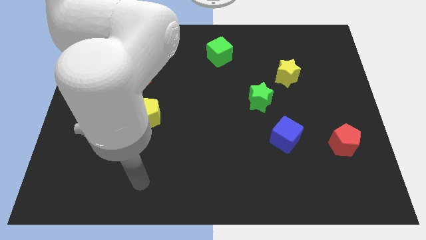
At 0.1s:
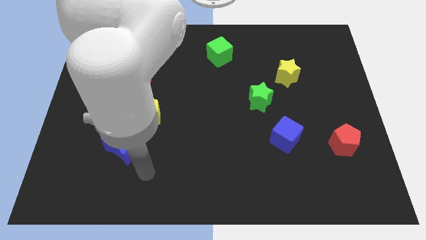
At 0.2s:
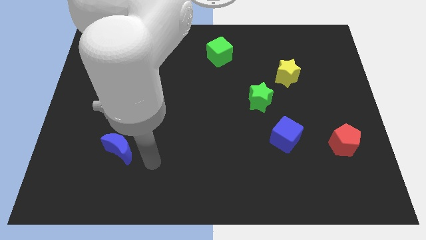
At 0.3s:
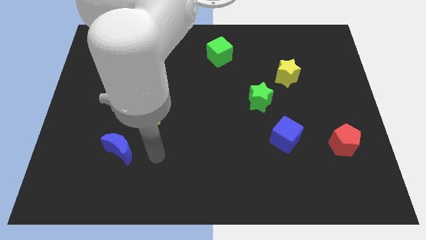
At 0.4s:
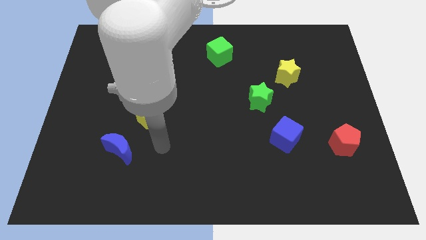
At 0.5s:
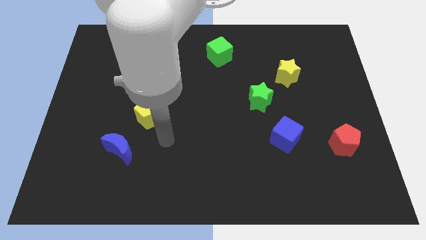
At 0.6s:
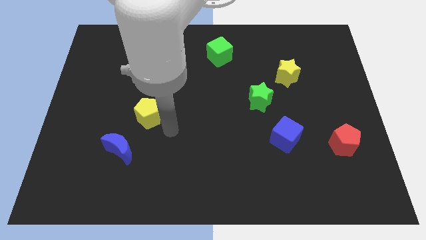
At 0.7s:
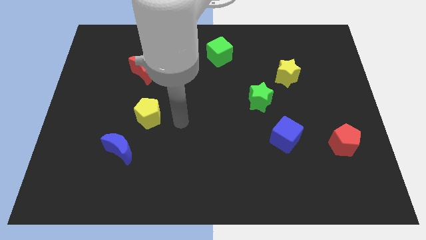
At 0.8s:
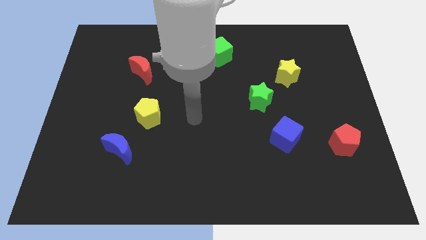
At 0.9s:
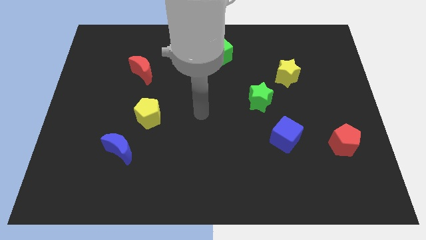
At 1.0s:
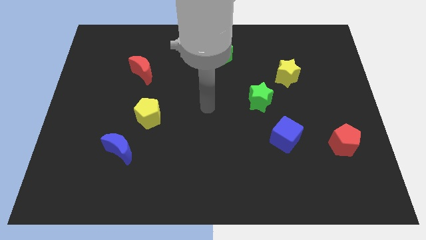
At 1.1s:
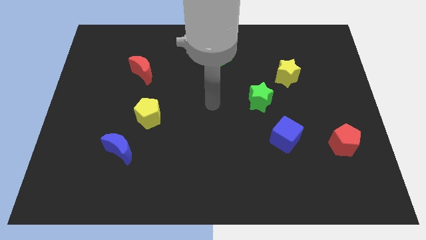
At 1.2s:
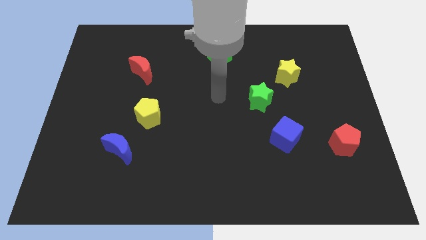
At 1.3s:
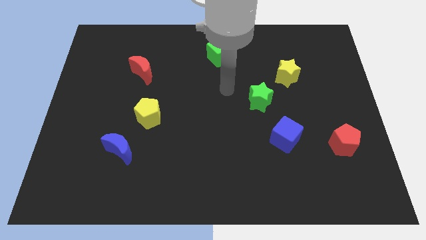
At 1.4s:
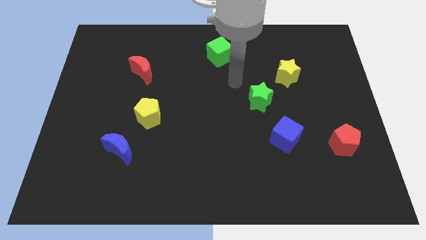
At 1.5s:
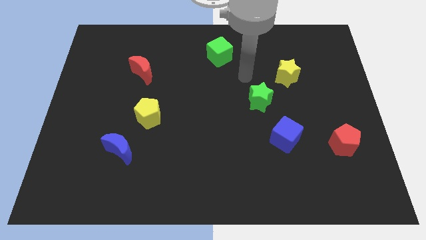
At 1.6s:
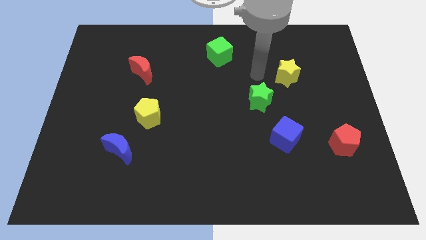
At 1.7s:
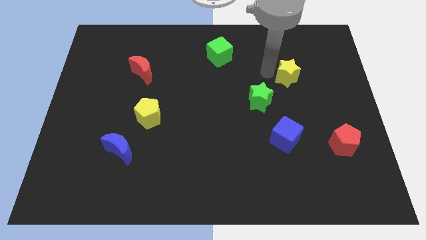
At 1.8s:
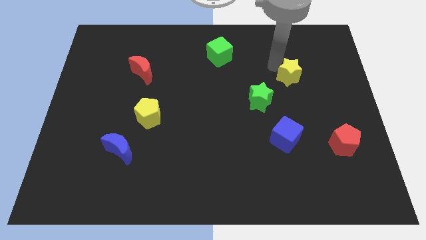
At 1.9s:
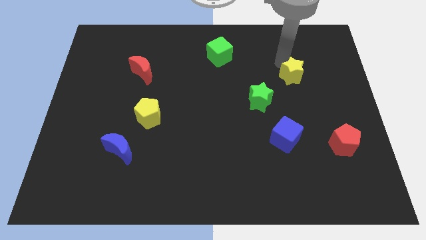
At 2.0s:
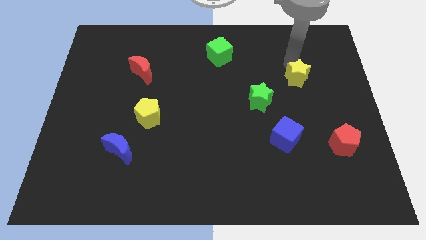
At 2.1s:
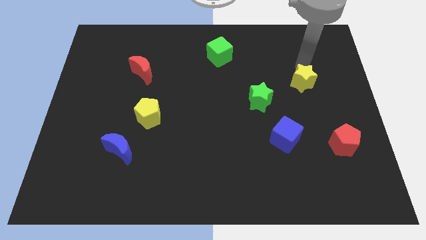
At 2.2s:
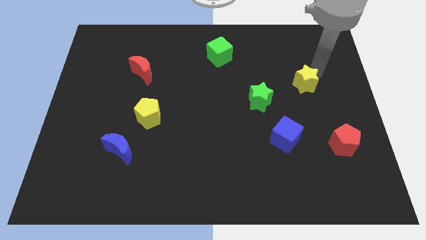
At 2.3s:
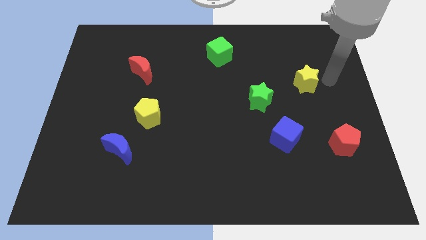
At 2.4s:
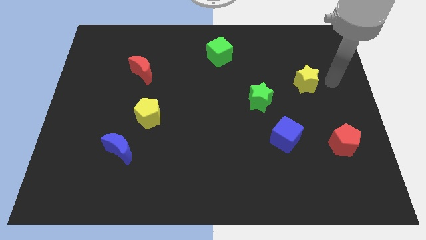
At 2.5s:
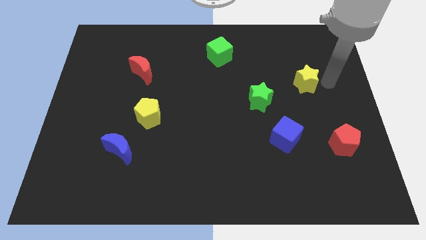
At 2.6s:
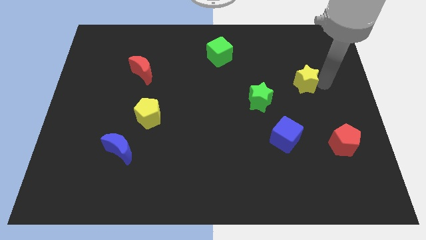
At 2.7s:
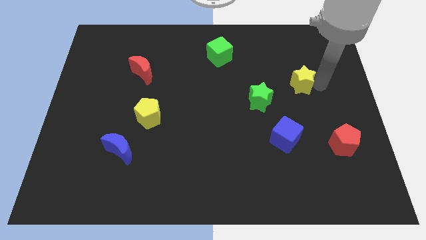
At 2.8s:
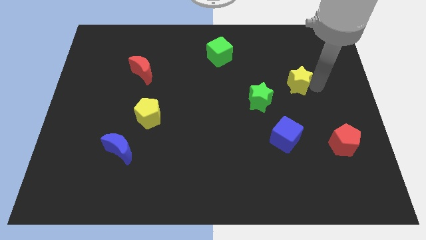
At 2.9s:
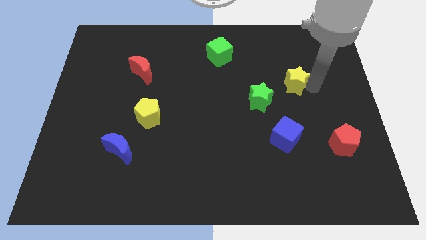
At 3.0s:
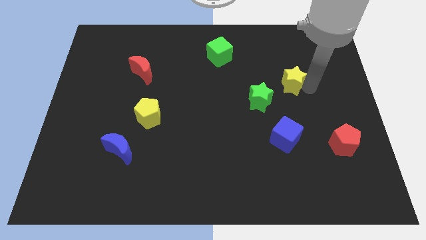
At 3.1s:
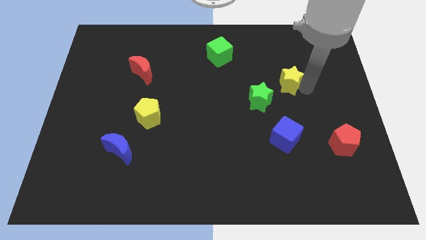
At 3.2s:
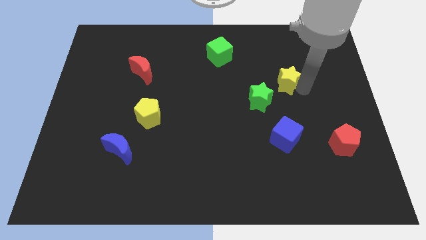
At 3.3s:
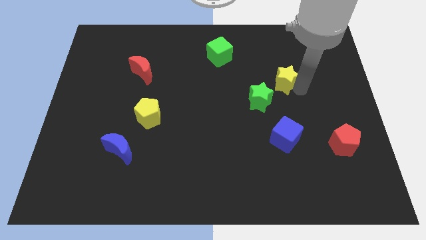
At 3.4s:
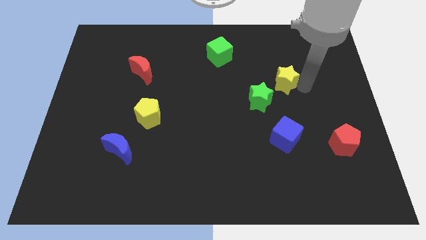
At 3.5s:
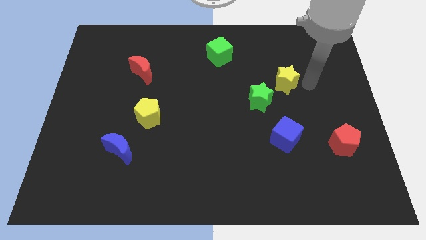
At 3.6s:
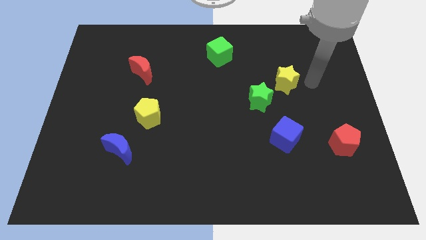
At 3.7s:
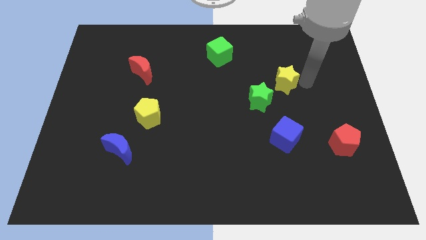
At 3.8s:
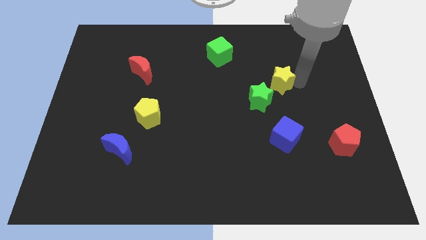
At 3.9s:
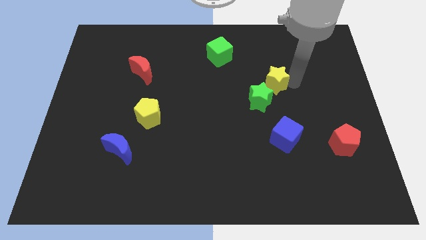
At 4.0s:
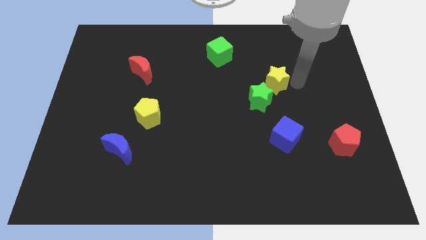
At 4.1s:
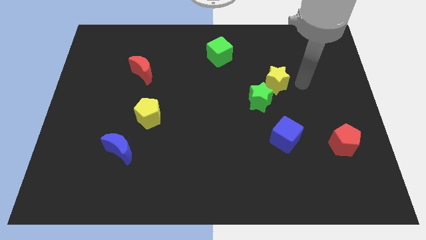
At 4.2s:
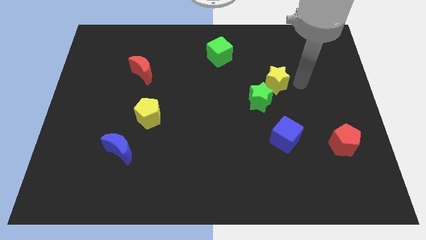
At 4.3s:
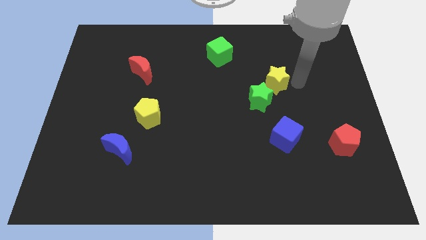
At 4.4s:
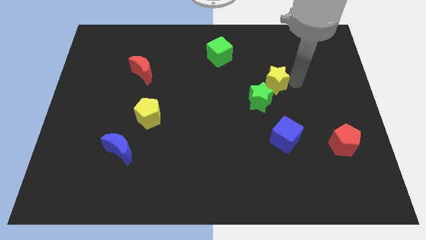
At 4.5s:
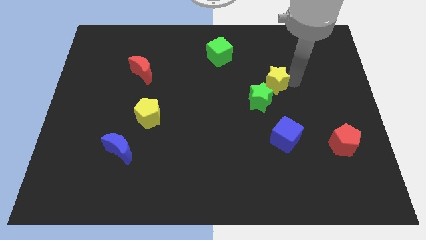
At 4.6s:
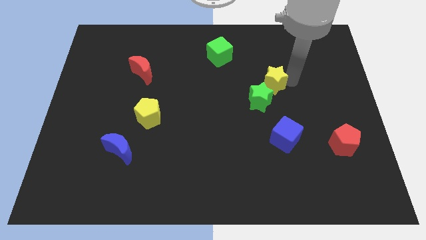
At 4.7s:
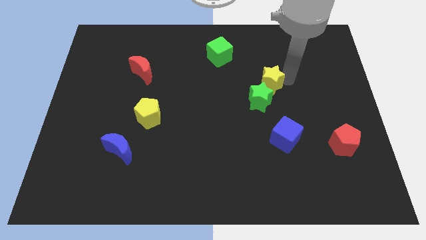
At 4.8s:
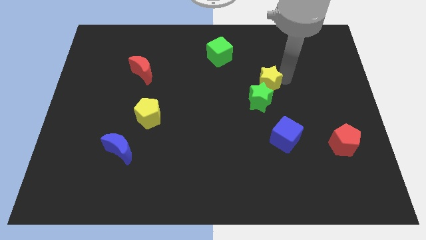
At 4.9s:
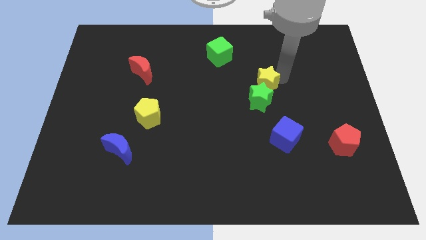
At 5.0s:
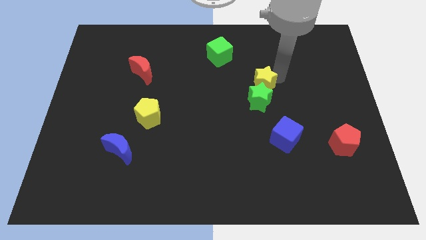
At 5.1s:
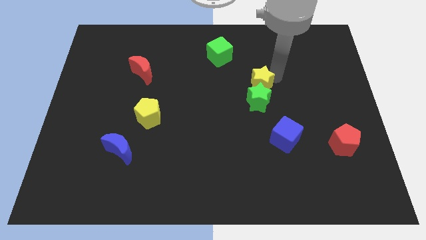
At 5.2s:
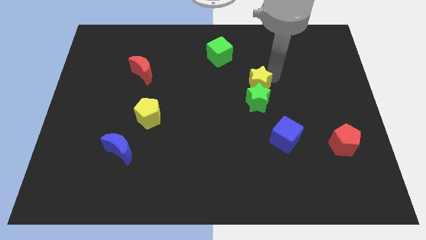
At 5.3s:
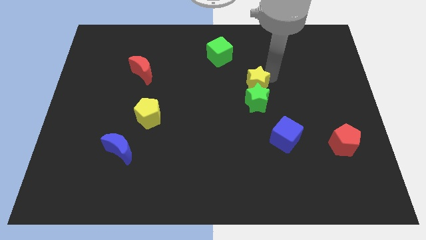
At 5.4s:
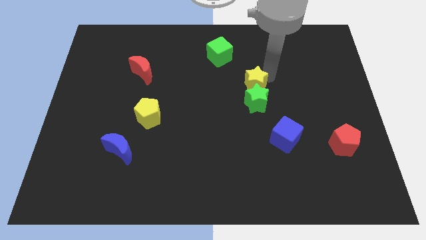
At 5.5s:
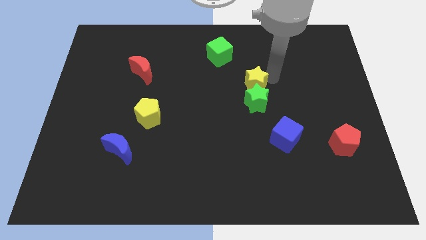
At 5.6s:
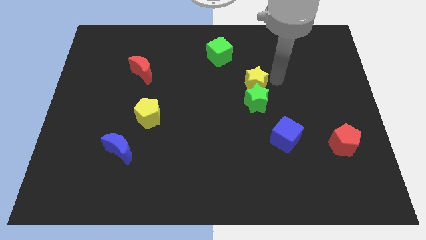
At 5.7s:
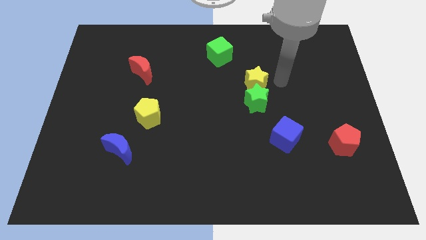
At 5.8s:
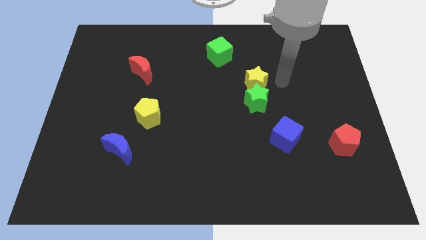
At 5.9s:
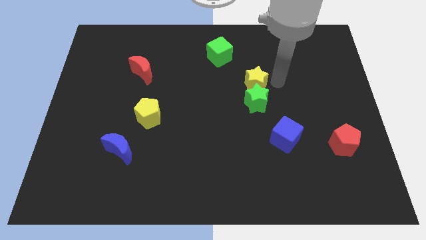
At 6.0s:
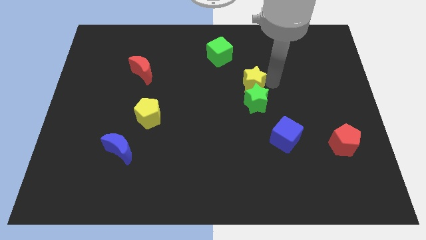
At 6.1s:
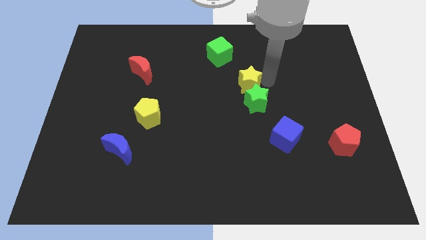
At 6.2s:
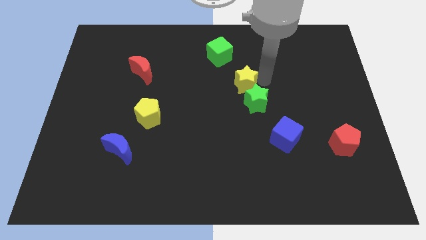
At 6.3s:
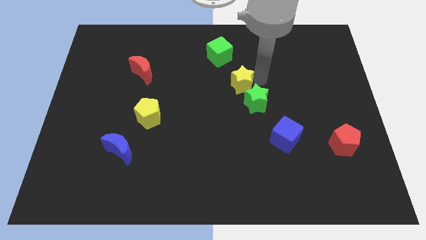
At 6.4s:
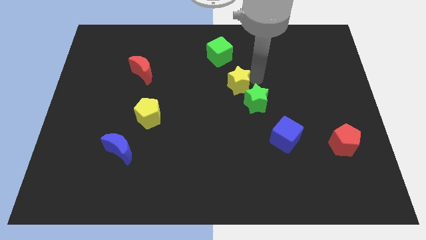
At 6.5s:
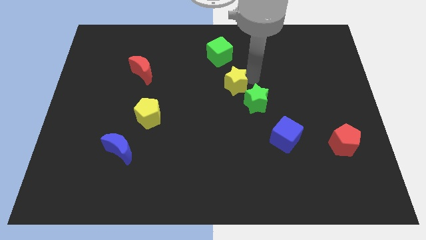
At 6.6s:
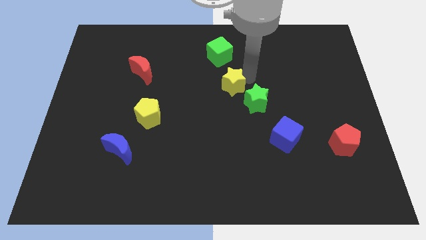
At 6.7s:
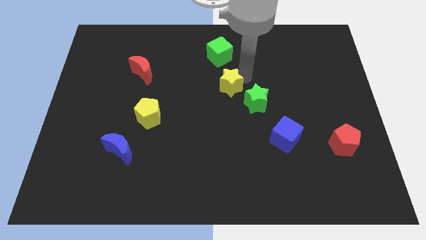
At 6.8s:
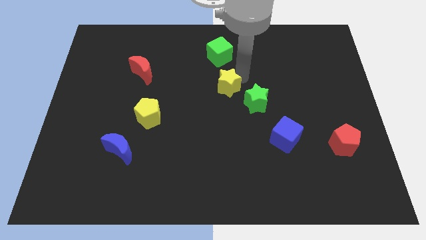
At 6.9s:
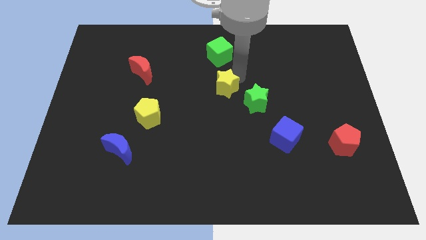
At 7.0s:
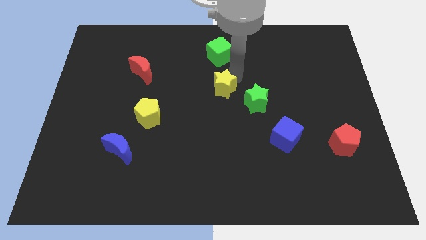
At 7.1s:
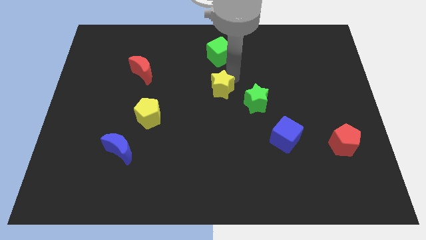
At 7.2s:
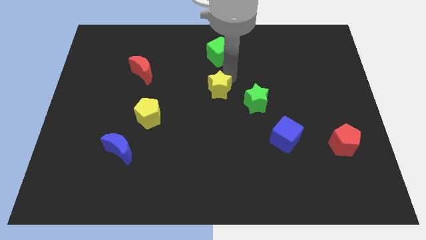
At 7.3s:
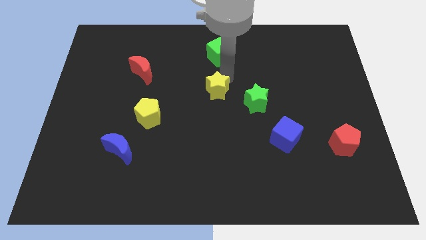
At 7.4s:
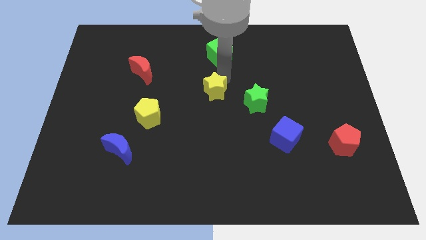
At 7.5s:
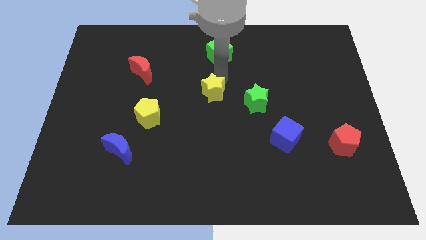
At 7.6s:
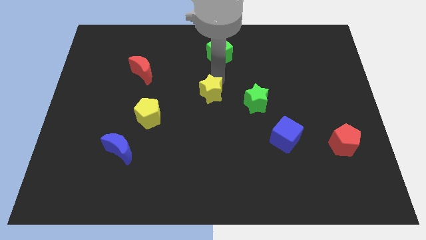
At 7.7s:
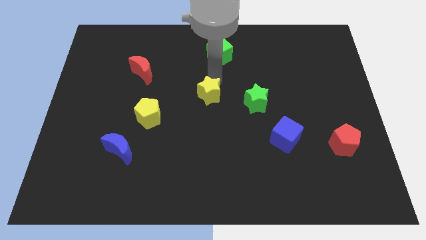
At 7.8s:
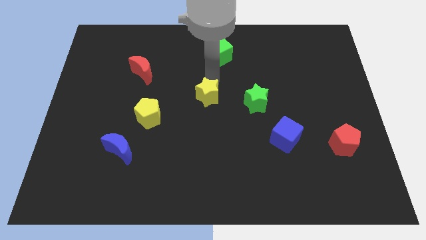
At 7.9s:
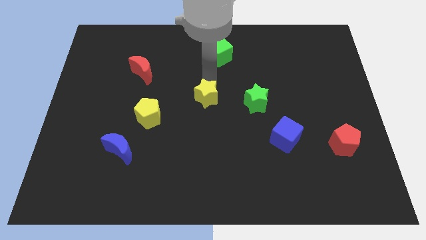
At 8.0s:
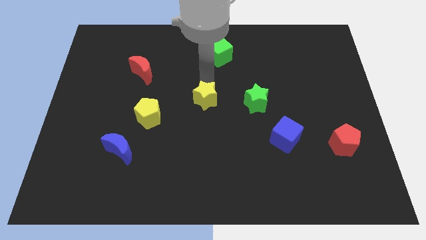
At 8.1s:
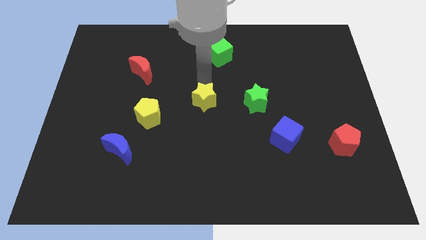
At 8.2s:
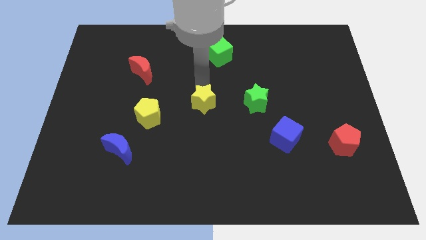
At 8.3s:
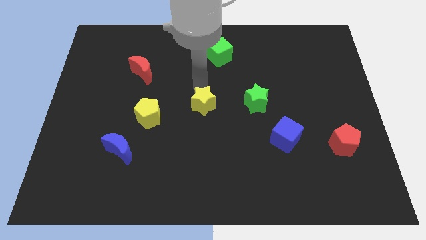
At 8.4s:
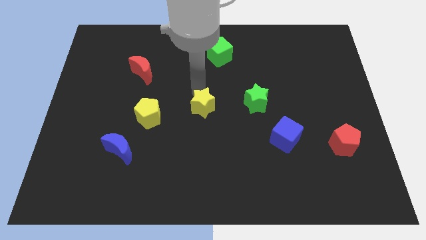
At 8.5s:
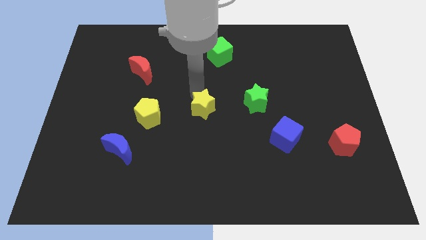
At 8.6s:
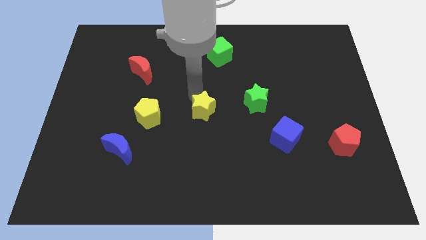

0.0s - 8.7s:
move the yellow star downwards and then to the left
